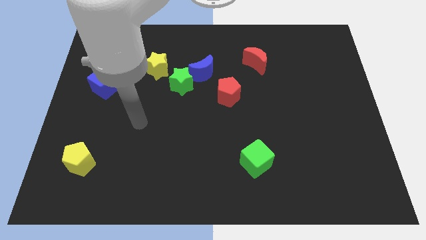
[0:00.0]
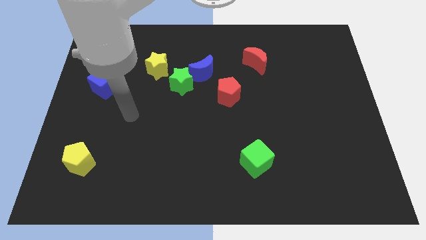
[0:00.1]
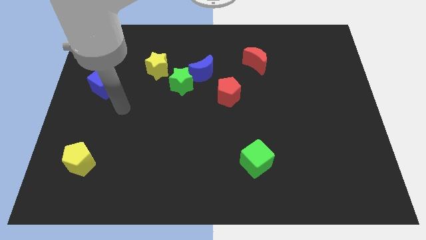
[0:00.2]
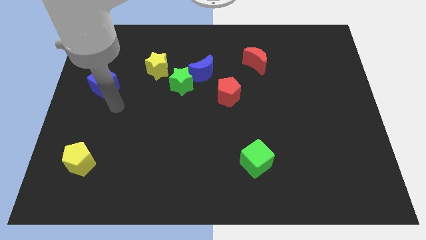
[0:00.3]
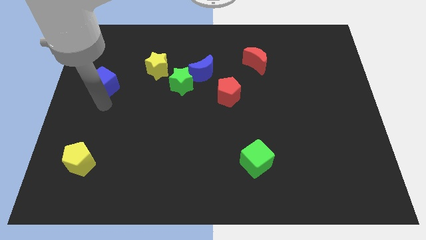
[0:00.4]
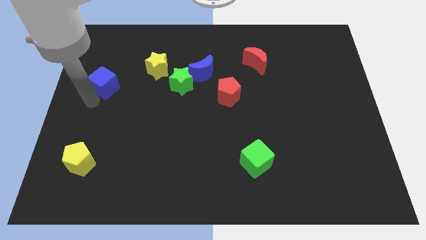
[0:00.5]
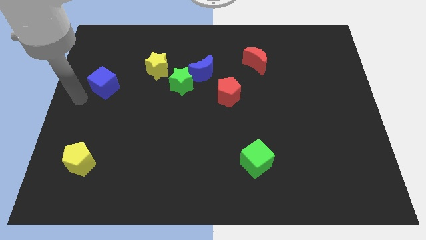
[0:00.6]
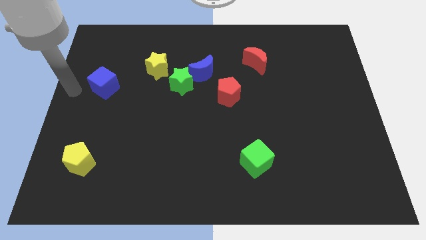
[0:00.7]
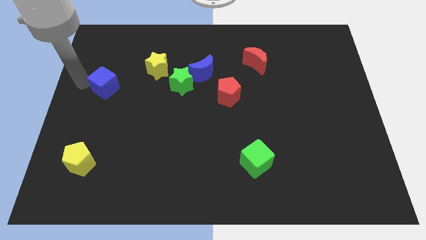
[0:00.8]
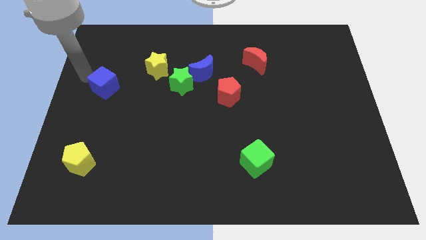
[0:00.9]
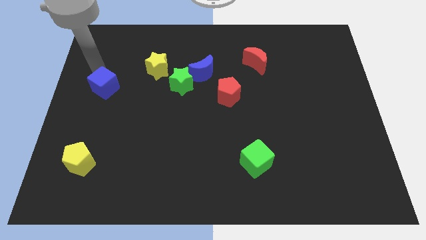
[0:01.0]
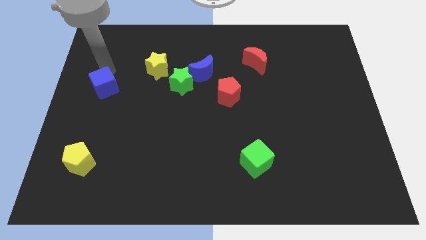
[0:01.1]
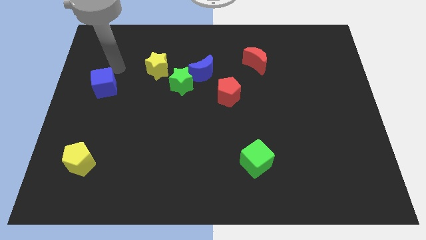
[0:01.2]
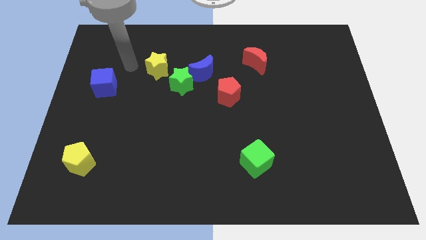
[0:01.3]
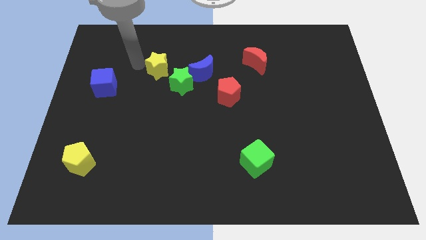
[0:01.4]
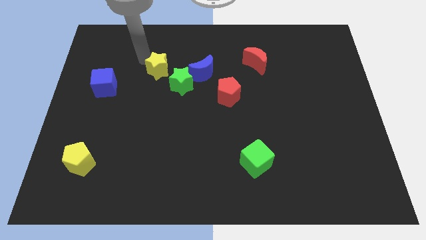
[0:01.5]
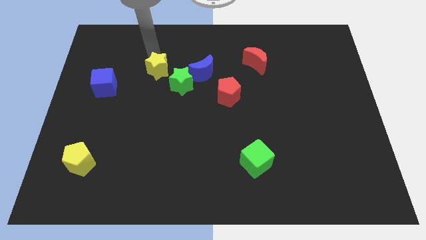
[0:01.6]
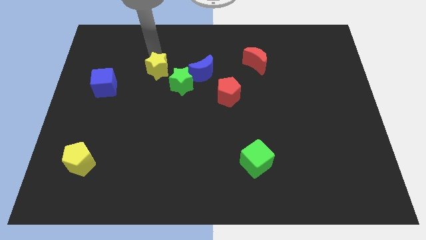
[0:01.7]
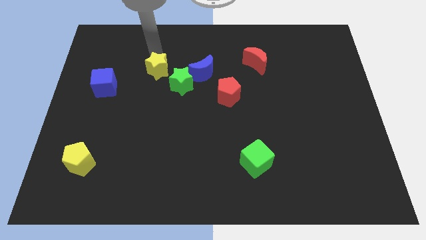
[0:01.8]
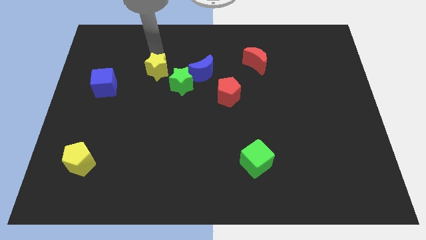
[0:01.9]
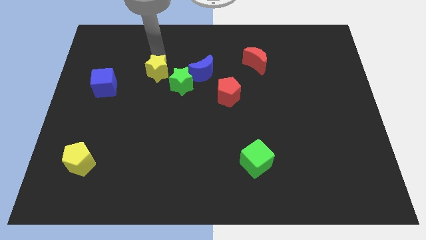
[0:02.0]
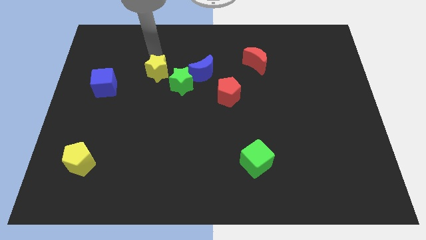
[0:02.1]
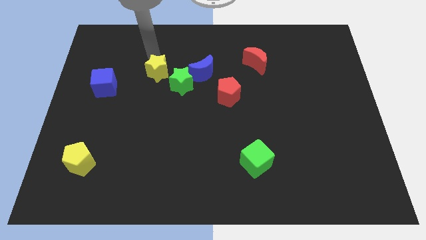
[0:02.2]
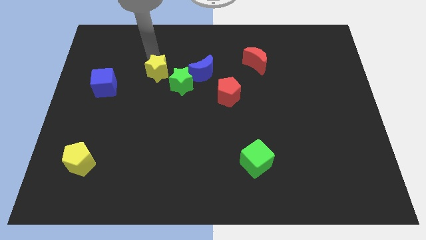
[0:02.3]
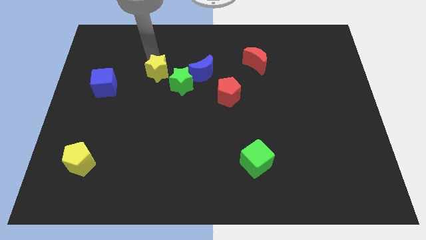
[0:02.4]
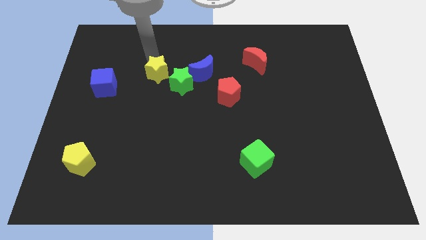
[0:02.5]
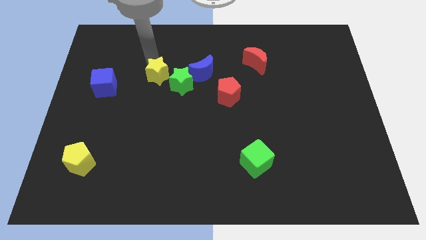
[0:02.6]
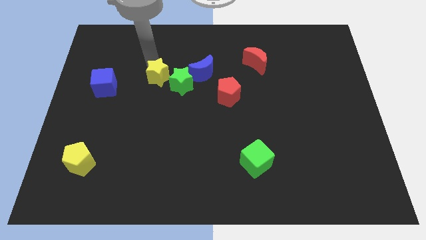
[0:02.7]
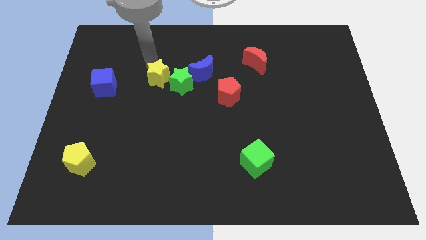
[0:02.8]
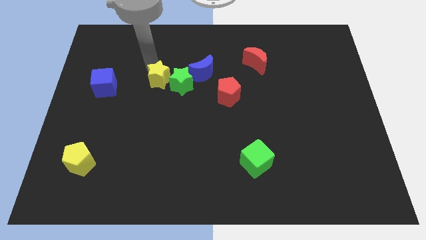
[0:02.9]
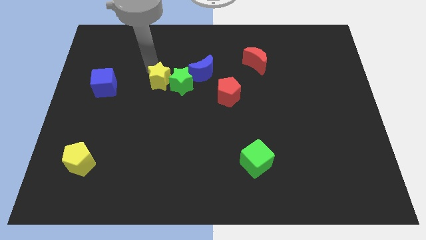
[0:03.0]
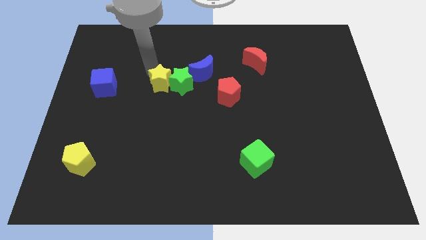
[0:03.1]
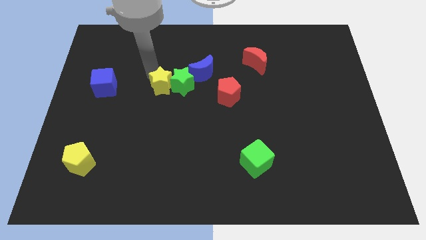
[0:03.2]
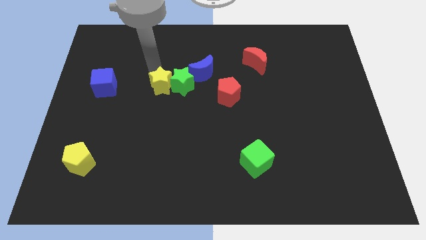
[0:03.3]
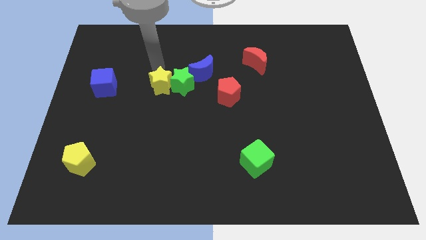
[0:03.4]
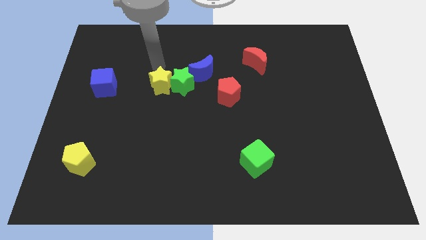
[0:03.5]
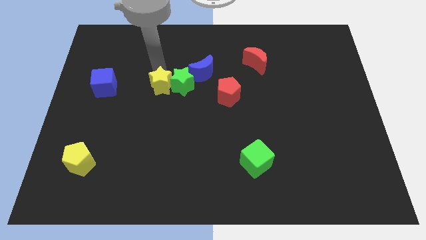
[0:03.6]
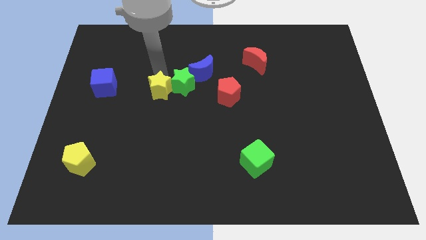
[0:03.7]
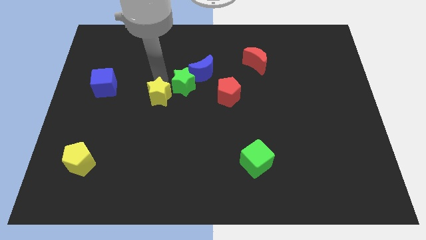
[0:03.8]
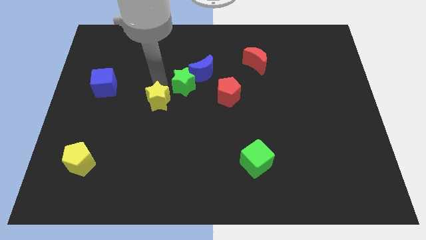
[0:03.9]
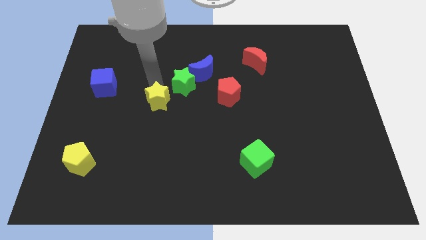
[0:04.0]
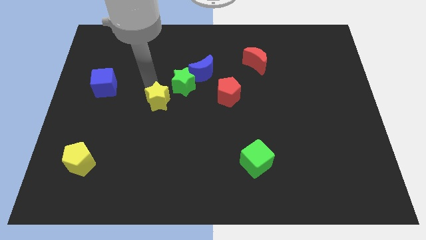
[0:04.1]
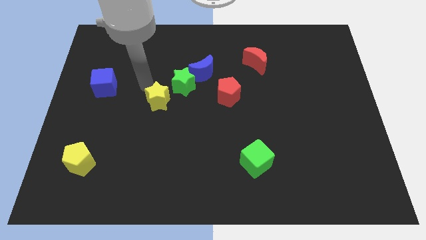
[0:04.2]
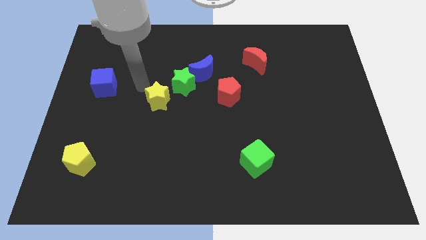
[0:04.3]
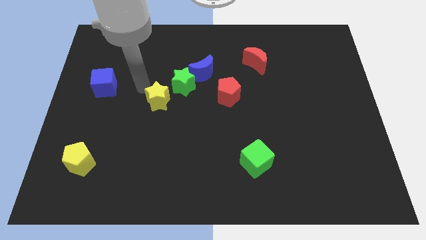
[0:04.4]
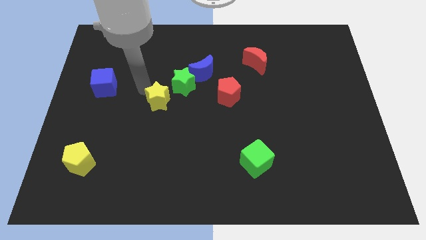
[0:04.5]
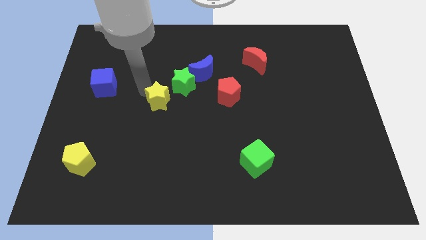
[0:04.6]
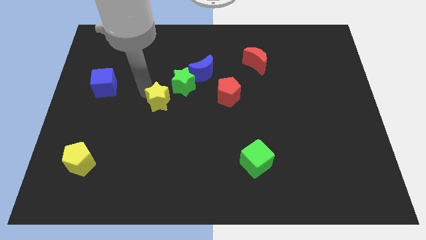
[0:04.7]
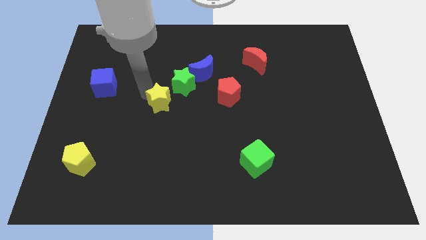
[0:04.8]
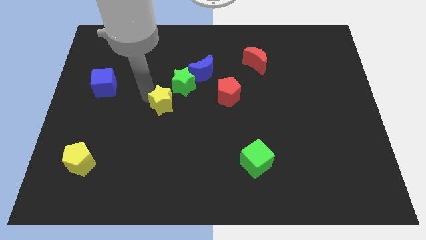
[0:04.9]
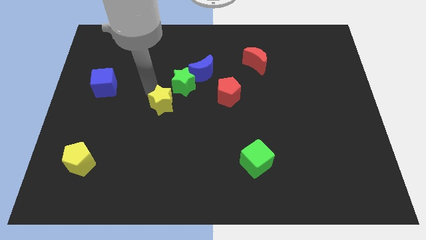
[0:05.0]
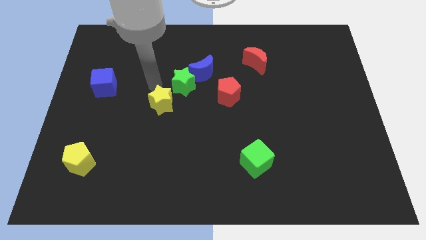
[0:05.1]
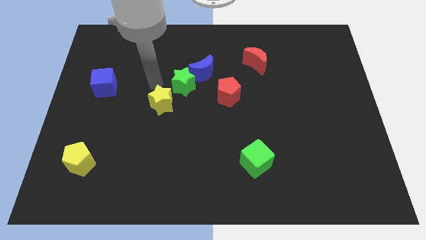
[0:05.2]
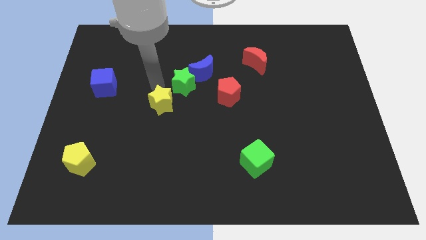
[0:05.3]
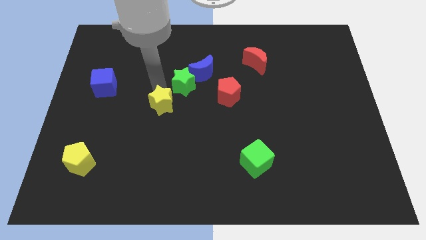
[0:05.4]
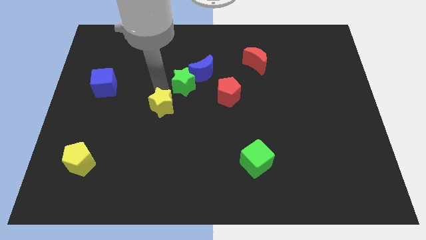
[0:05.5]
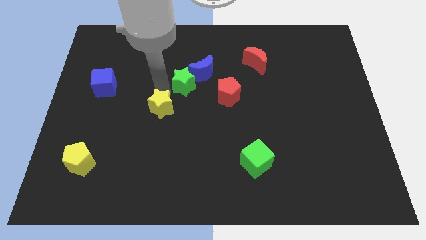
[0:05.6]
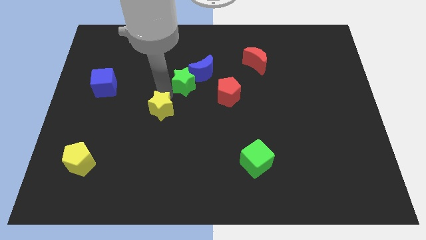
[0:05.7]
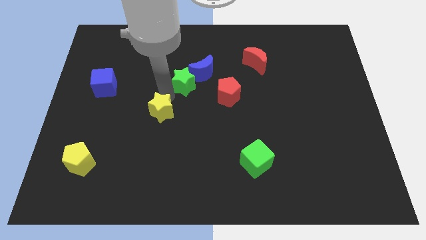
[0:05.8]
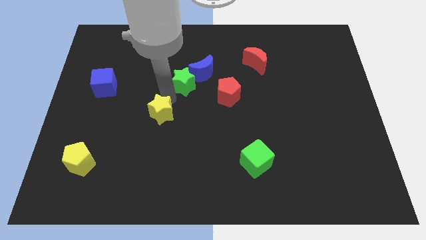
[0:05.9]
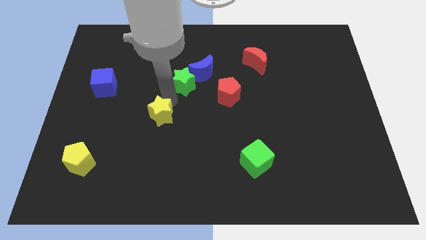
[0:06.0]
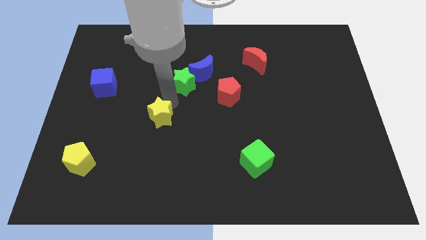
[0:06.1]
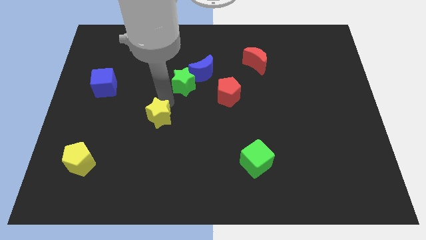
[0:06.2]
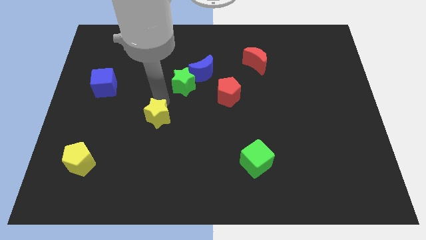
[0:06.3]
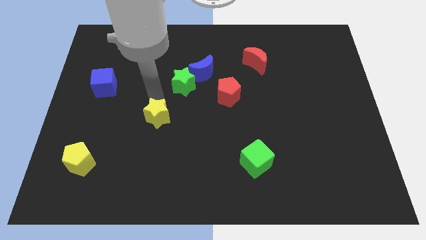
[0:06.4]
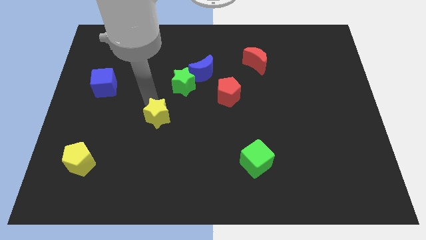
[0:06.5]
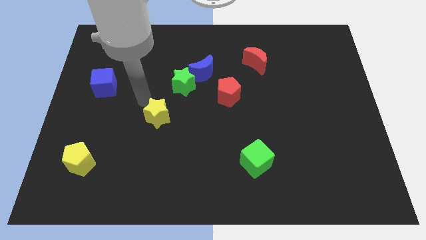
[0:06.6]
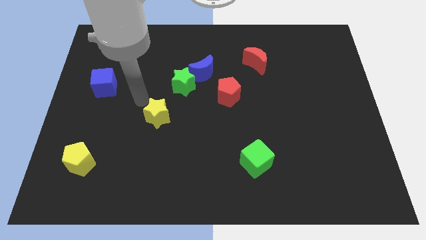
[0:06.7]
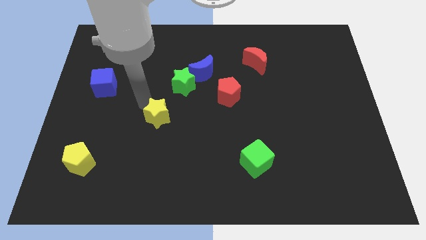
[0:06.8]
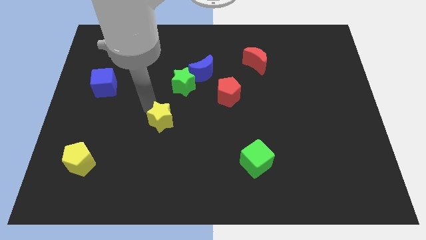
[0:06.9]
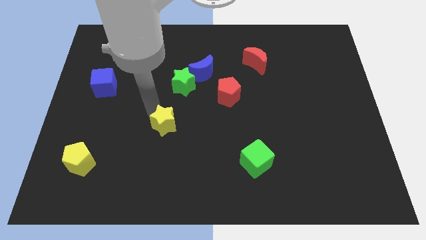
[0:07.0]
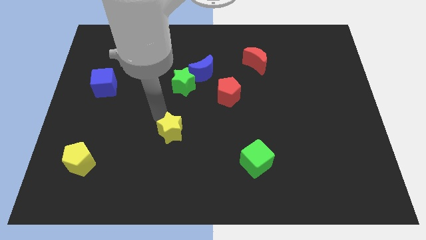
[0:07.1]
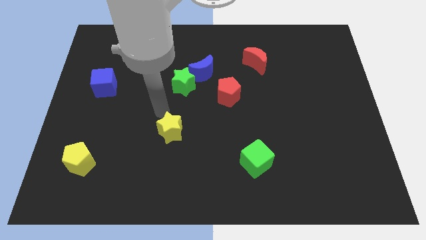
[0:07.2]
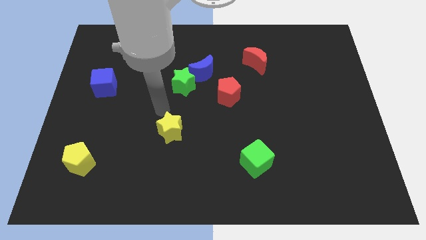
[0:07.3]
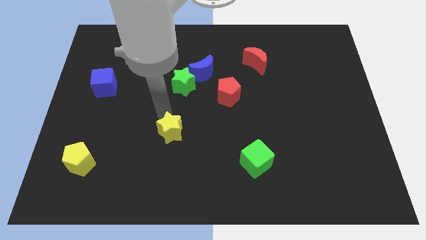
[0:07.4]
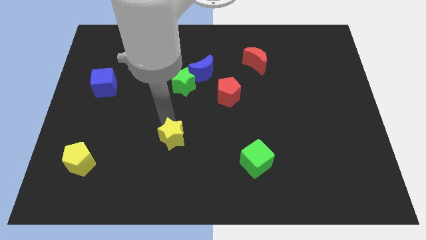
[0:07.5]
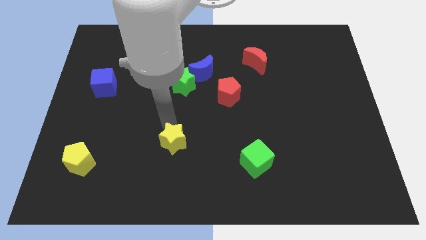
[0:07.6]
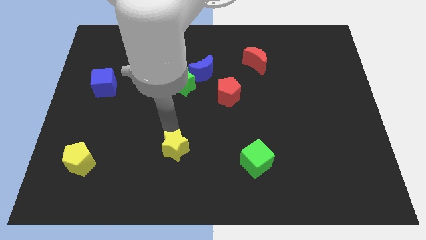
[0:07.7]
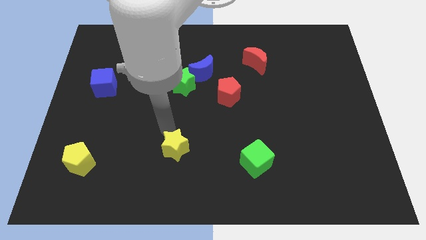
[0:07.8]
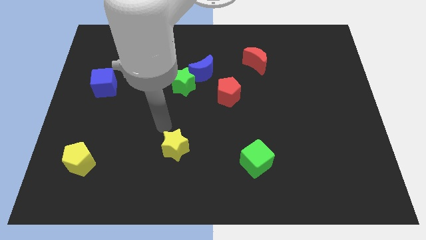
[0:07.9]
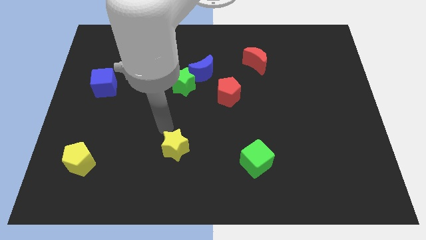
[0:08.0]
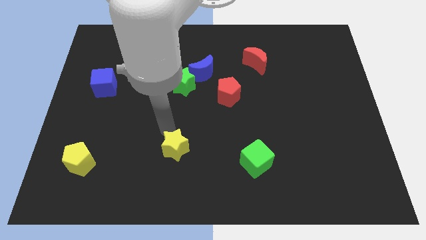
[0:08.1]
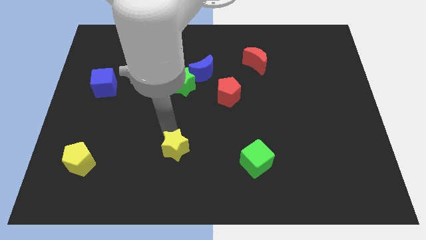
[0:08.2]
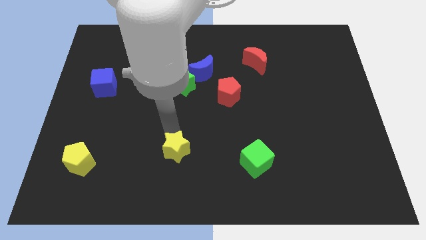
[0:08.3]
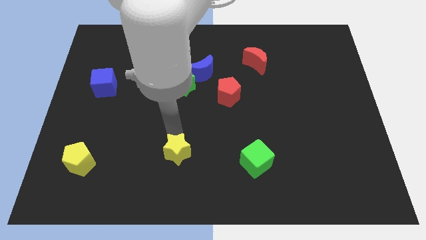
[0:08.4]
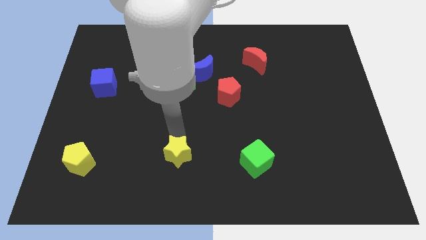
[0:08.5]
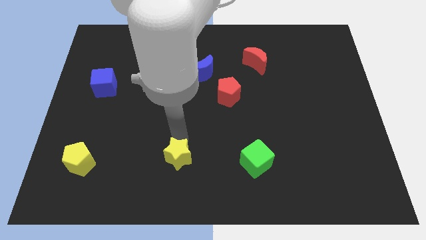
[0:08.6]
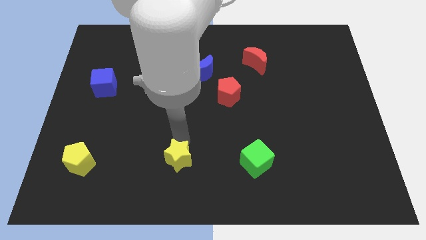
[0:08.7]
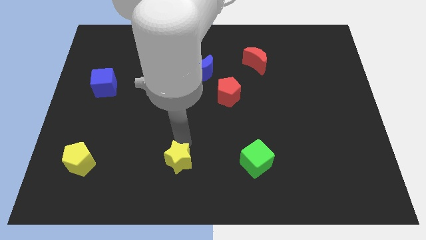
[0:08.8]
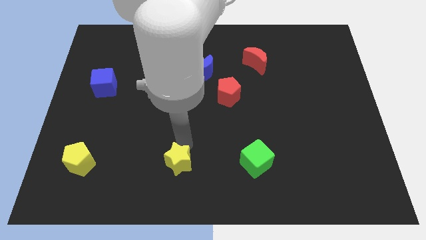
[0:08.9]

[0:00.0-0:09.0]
push the yellow star to the bottom
